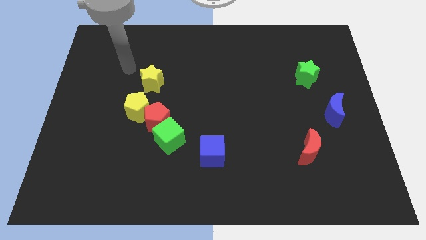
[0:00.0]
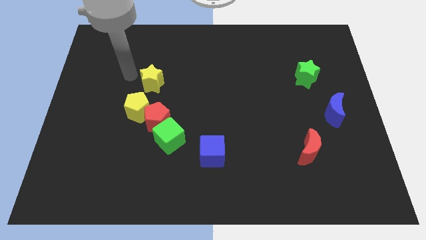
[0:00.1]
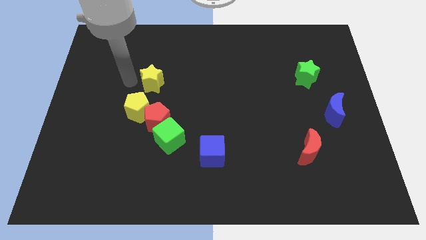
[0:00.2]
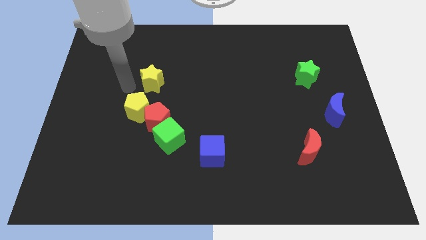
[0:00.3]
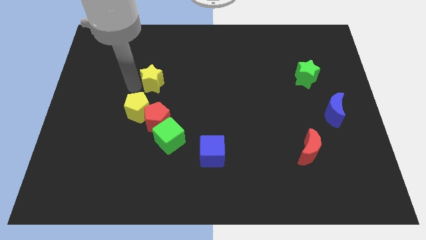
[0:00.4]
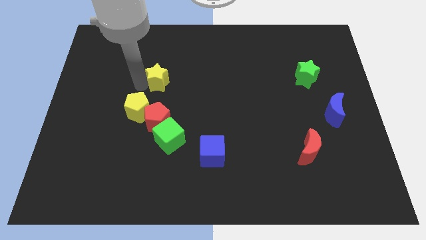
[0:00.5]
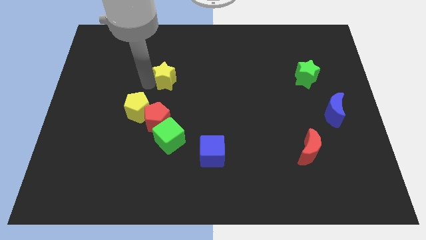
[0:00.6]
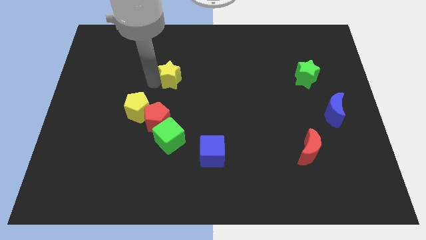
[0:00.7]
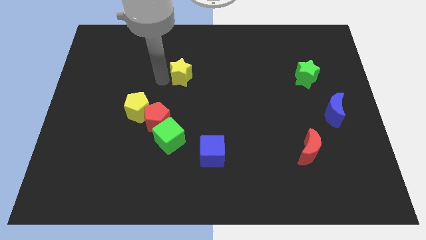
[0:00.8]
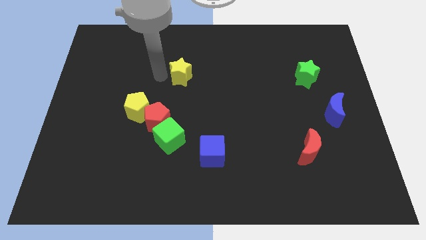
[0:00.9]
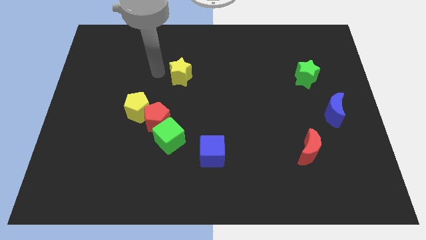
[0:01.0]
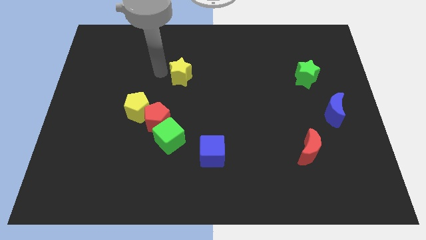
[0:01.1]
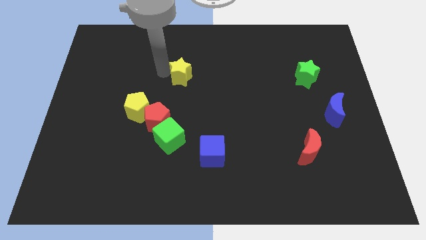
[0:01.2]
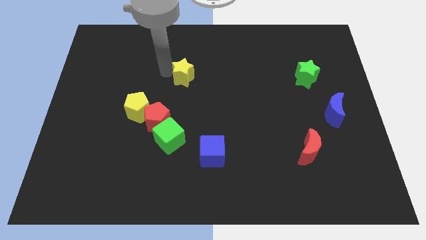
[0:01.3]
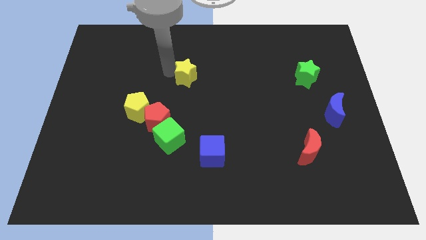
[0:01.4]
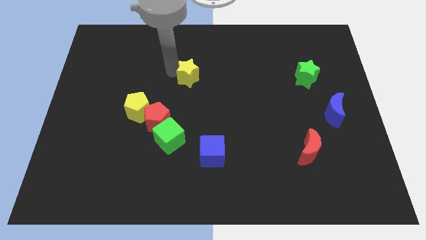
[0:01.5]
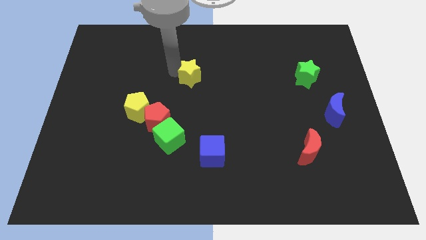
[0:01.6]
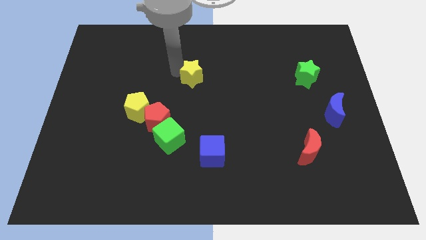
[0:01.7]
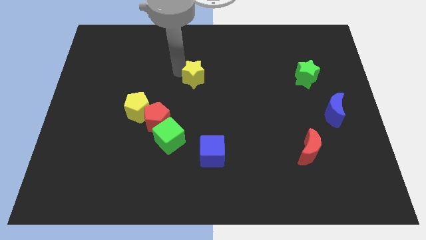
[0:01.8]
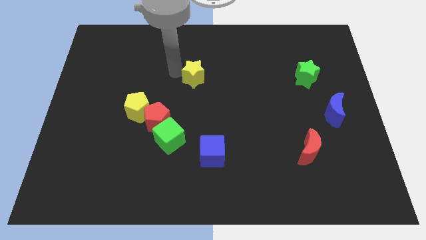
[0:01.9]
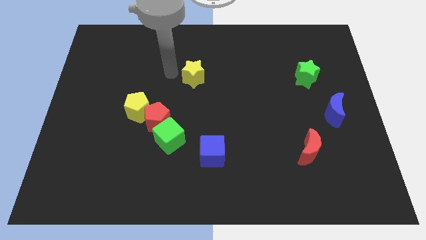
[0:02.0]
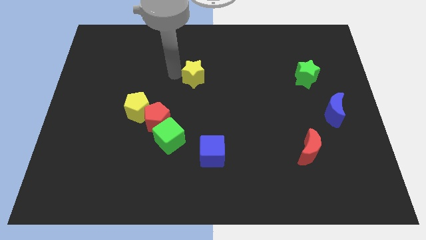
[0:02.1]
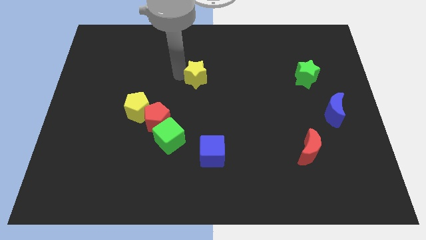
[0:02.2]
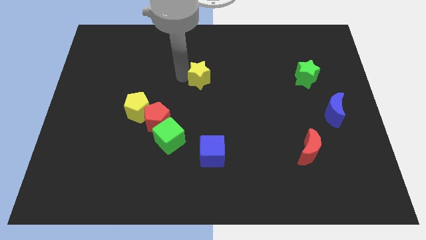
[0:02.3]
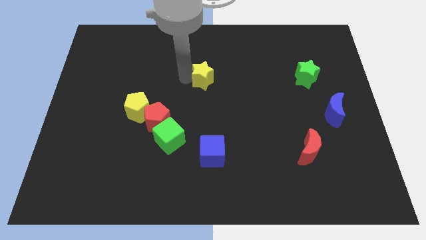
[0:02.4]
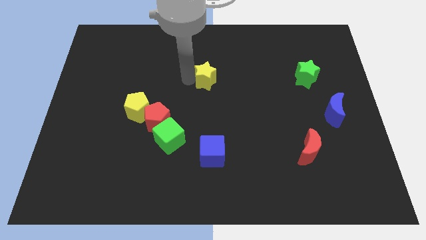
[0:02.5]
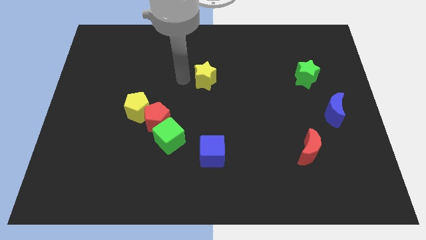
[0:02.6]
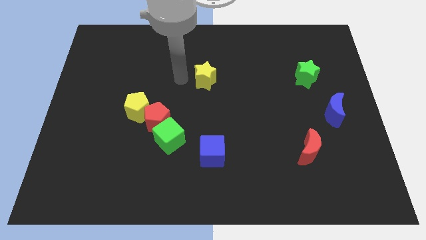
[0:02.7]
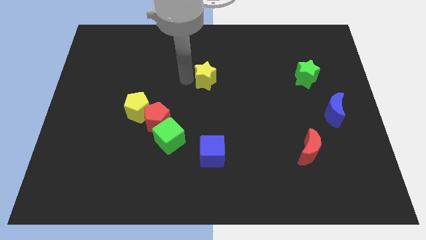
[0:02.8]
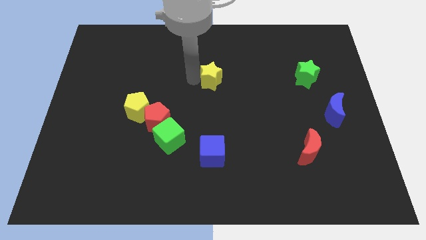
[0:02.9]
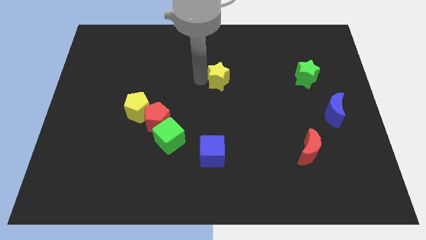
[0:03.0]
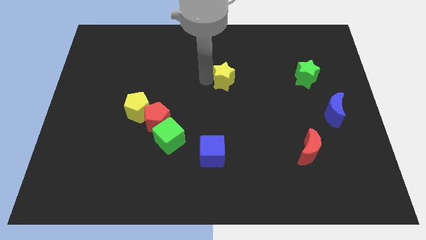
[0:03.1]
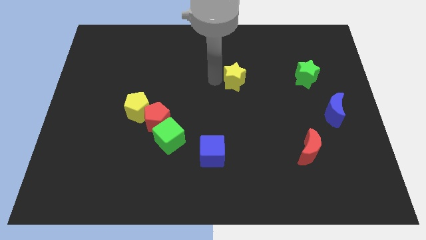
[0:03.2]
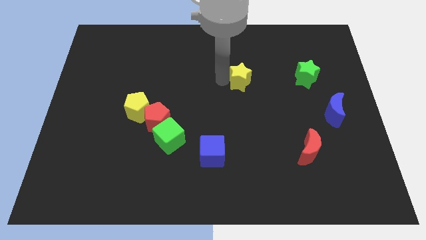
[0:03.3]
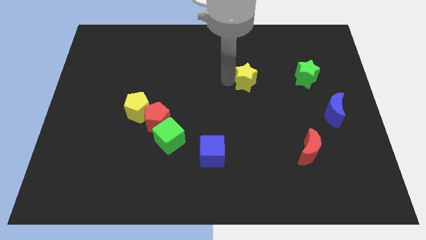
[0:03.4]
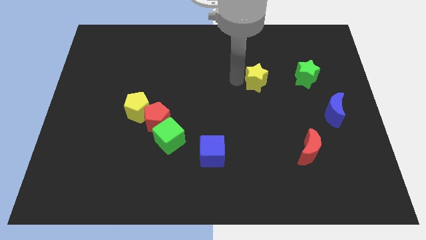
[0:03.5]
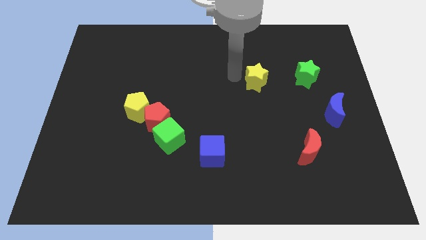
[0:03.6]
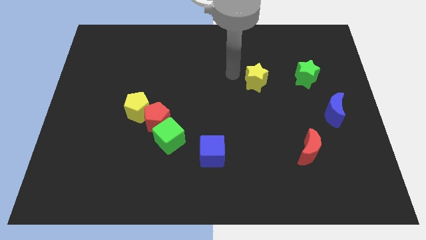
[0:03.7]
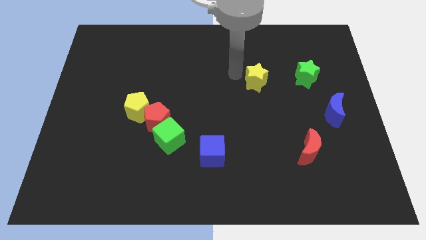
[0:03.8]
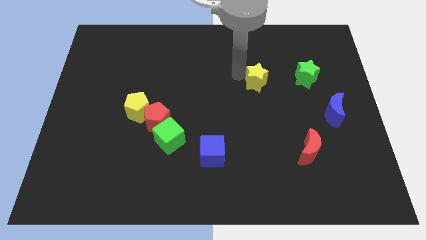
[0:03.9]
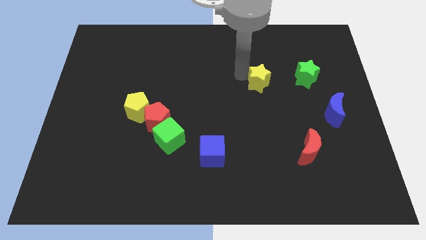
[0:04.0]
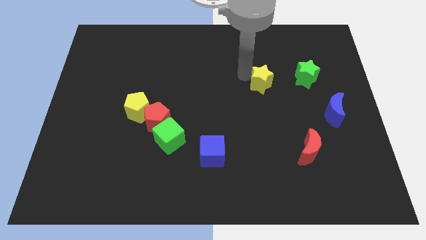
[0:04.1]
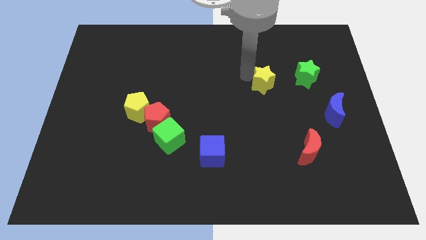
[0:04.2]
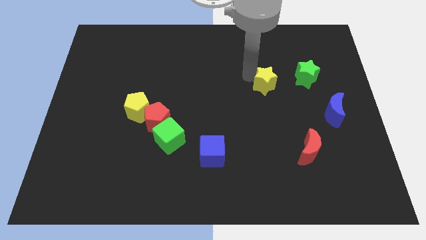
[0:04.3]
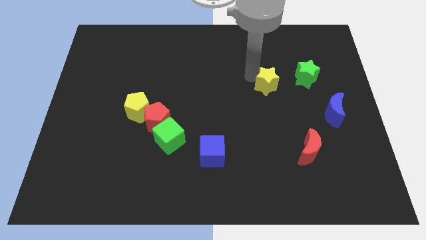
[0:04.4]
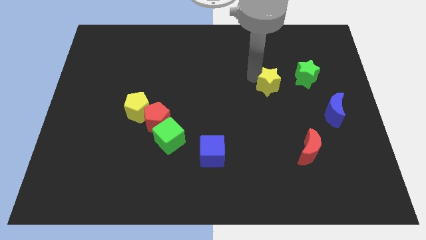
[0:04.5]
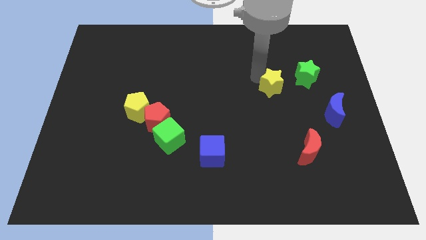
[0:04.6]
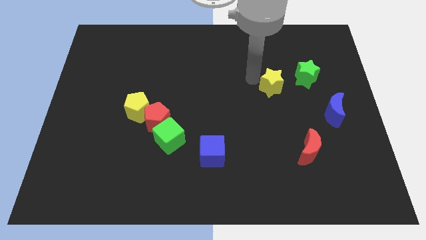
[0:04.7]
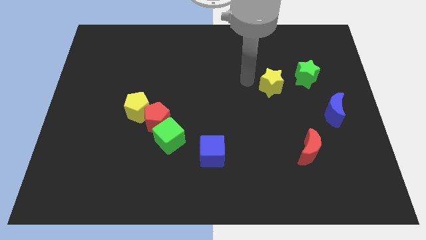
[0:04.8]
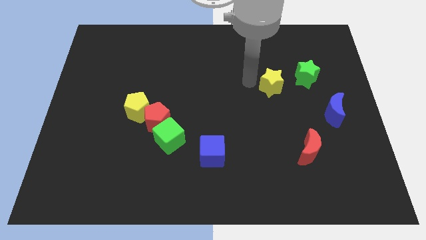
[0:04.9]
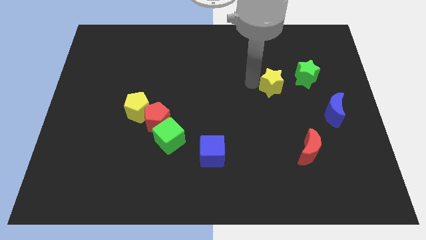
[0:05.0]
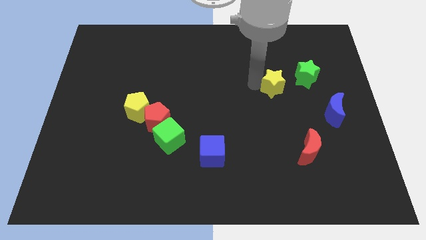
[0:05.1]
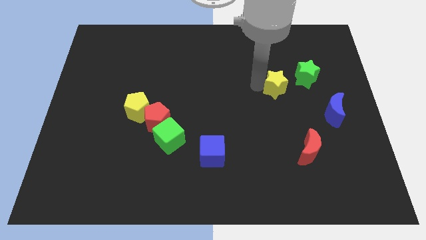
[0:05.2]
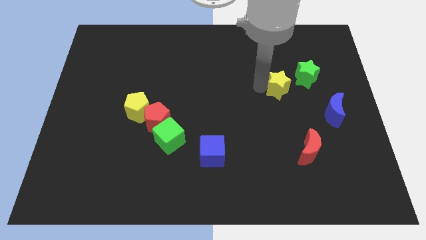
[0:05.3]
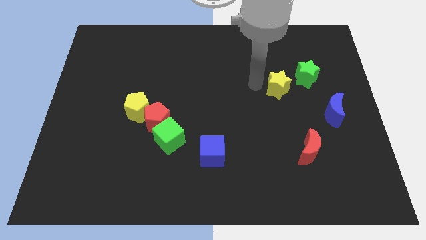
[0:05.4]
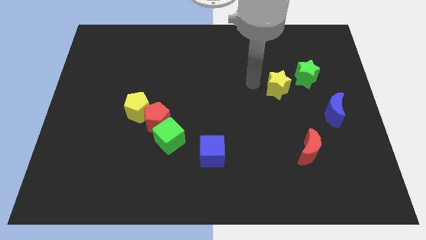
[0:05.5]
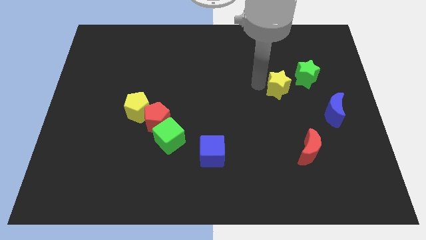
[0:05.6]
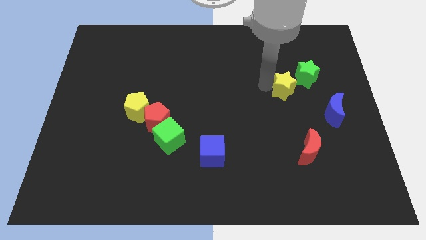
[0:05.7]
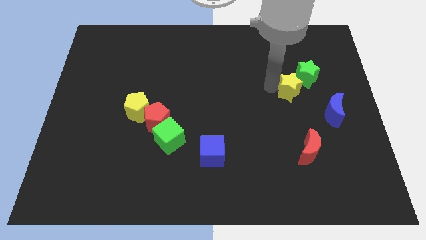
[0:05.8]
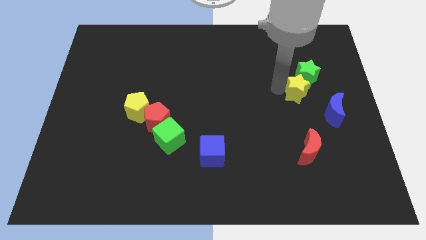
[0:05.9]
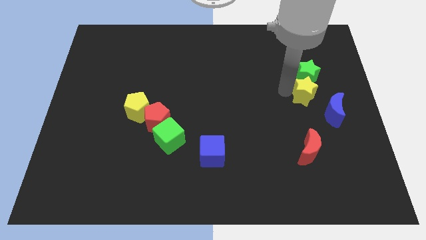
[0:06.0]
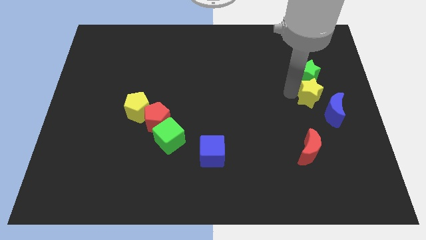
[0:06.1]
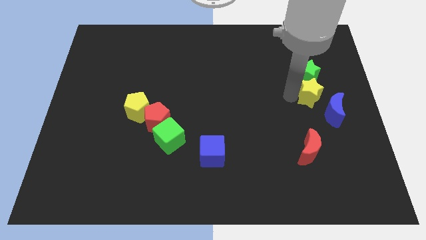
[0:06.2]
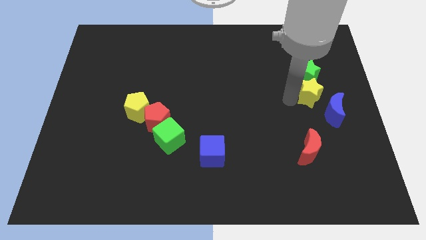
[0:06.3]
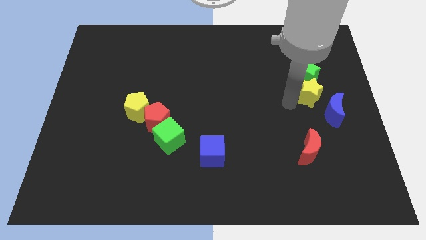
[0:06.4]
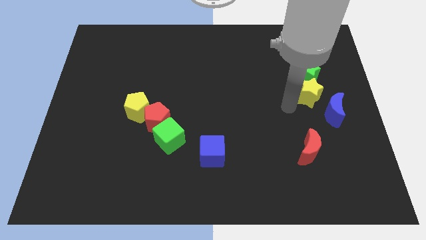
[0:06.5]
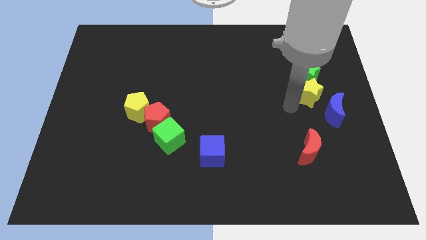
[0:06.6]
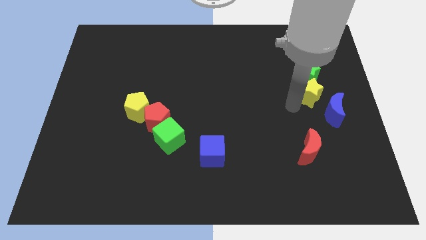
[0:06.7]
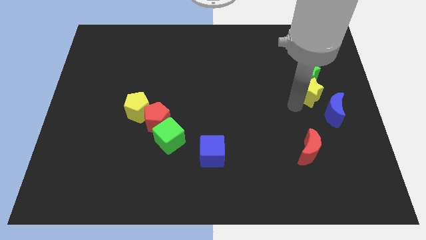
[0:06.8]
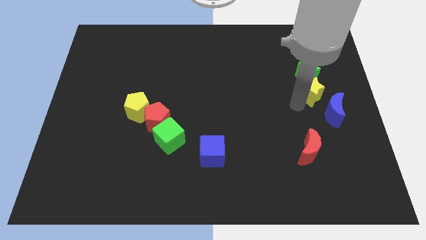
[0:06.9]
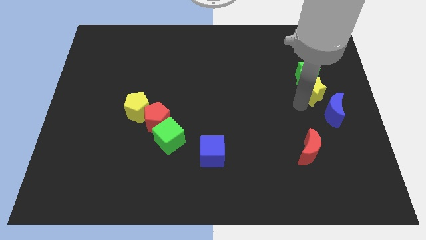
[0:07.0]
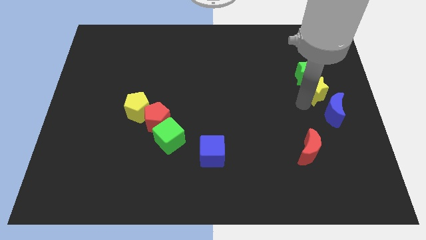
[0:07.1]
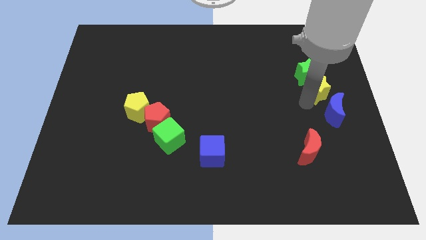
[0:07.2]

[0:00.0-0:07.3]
move the yellow star to the right side of the board

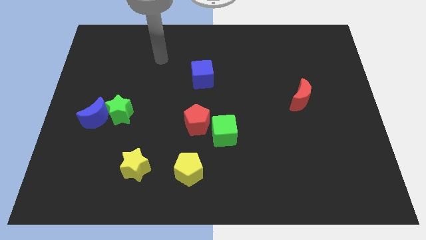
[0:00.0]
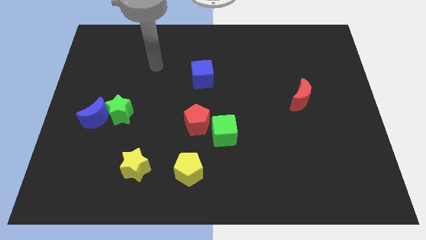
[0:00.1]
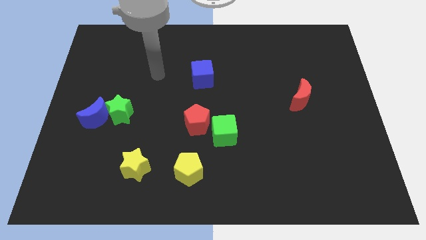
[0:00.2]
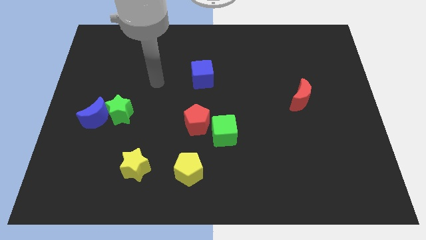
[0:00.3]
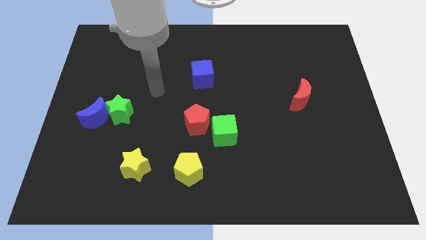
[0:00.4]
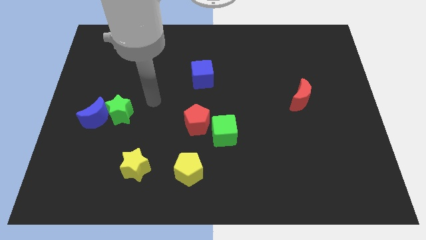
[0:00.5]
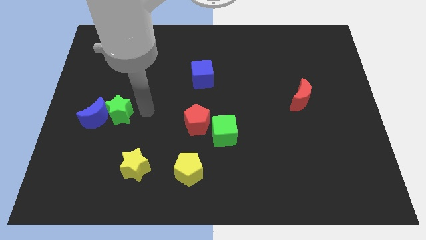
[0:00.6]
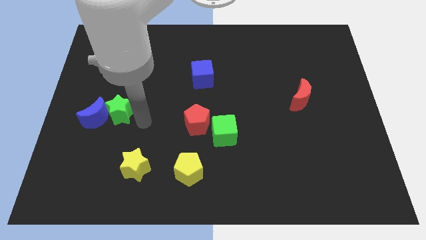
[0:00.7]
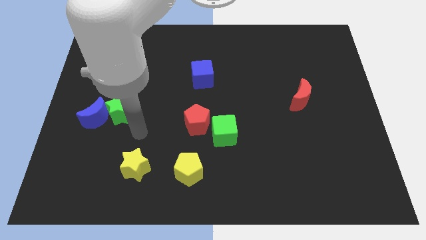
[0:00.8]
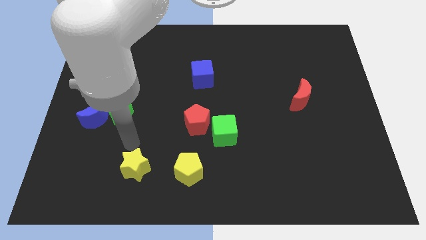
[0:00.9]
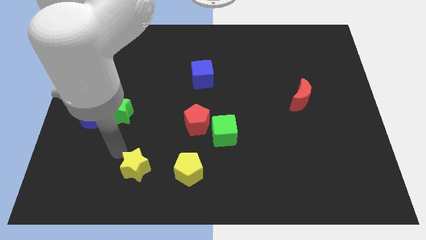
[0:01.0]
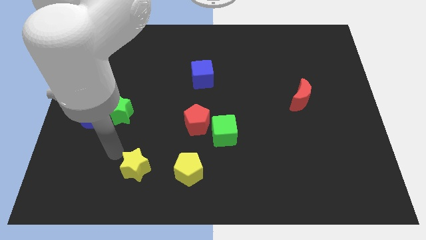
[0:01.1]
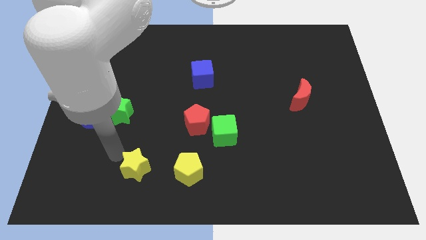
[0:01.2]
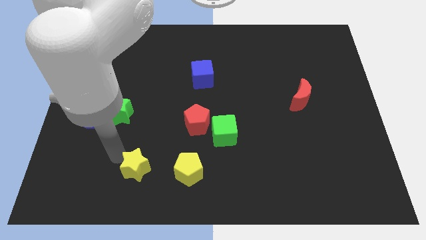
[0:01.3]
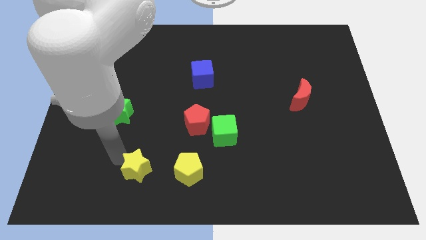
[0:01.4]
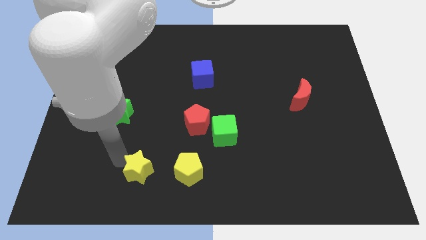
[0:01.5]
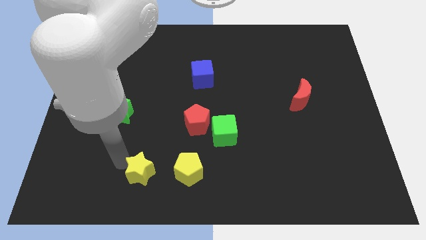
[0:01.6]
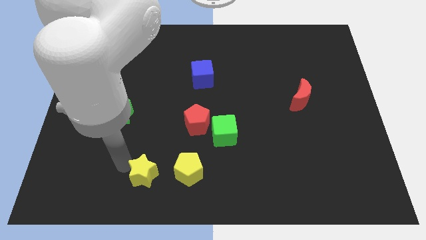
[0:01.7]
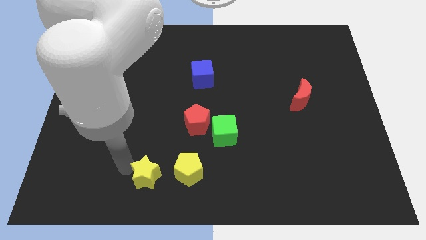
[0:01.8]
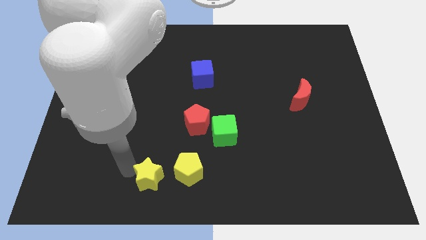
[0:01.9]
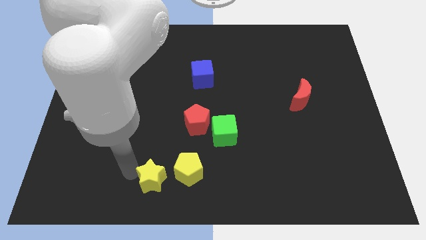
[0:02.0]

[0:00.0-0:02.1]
move the yellow star to the bottom
